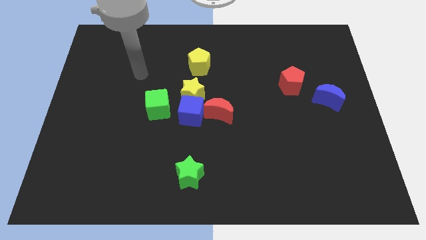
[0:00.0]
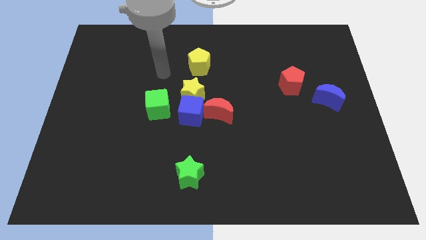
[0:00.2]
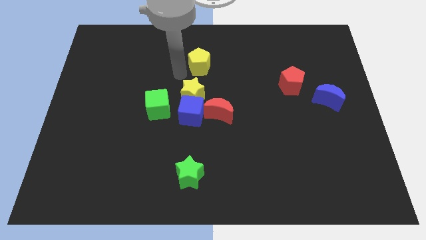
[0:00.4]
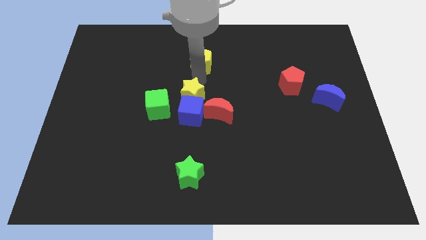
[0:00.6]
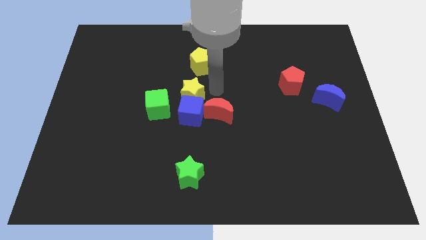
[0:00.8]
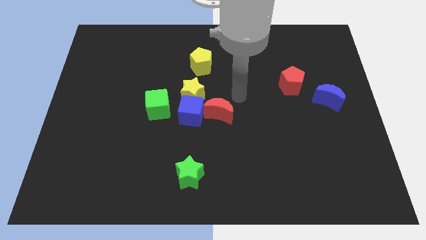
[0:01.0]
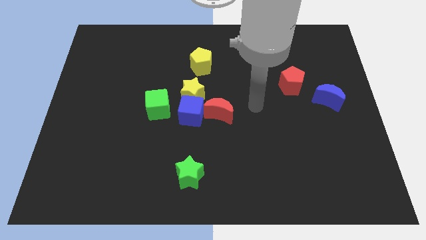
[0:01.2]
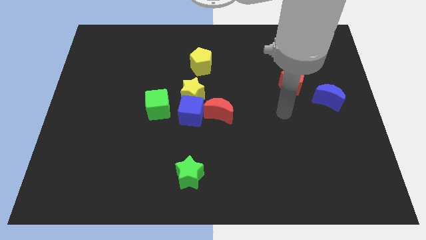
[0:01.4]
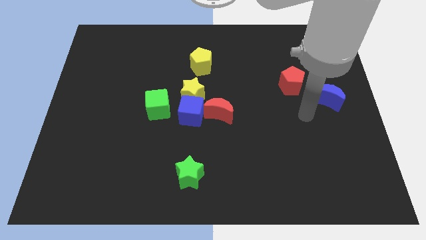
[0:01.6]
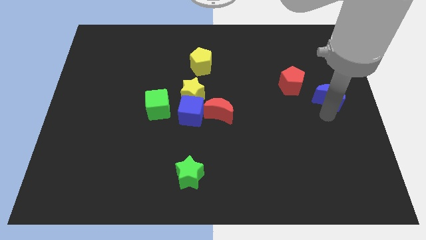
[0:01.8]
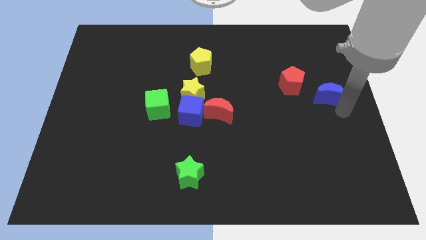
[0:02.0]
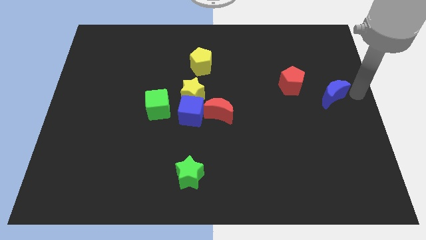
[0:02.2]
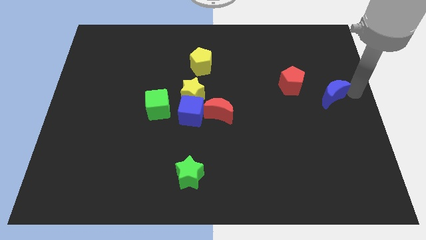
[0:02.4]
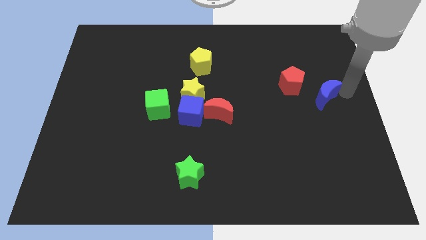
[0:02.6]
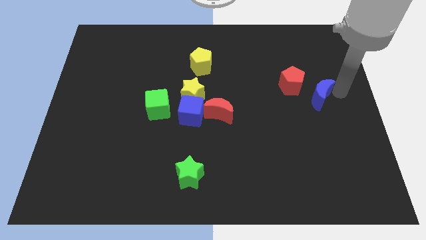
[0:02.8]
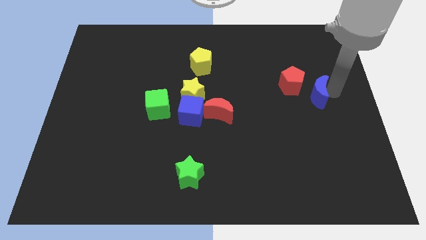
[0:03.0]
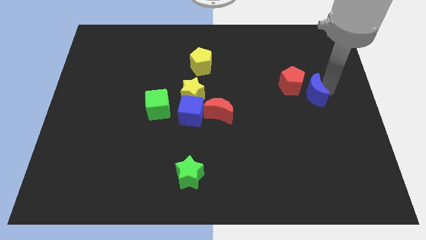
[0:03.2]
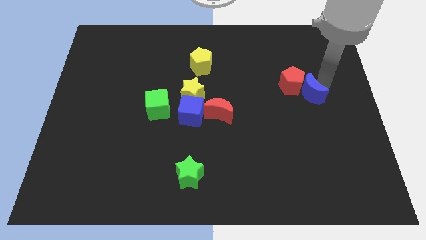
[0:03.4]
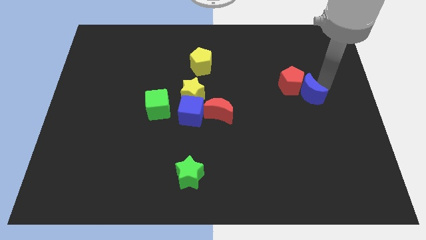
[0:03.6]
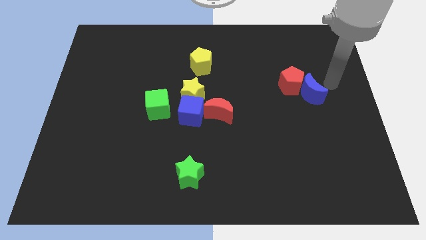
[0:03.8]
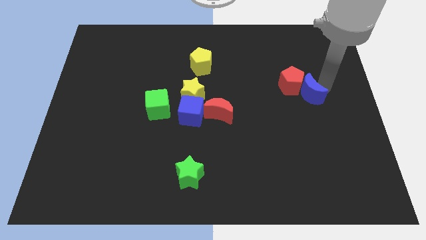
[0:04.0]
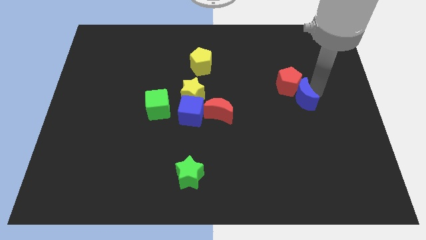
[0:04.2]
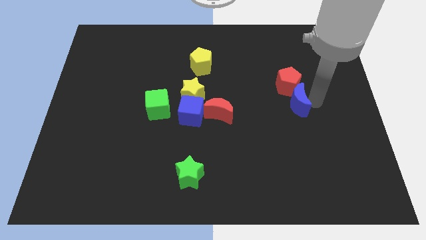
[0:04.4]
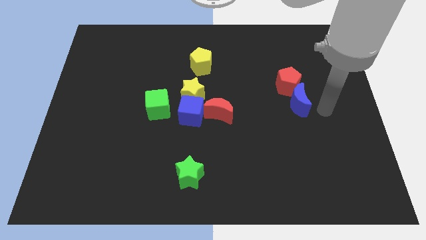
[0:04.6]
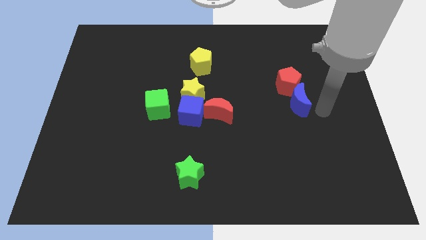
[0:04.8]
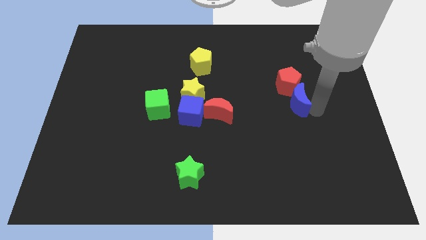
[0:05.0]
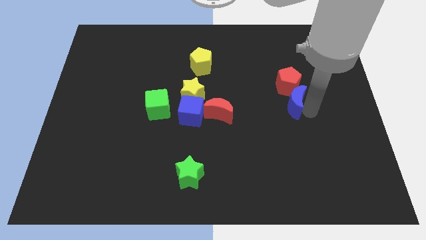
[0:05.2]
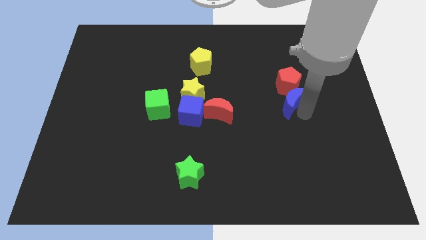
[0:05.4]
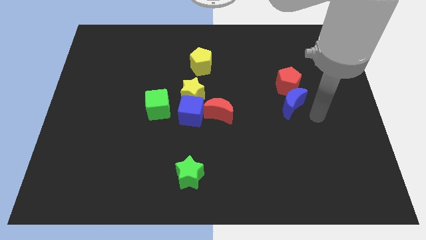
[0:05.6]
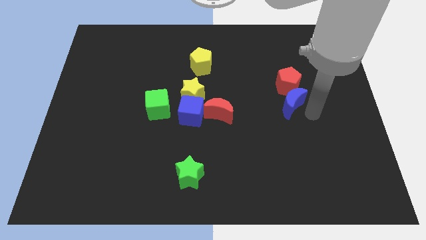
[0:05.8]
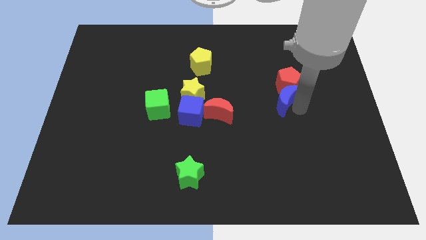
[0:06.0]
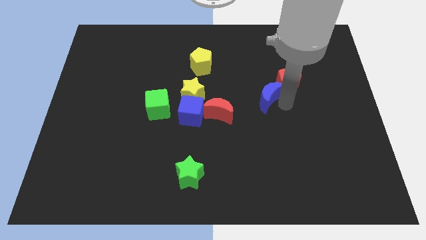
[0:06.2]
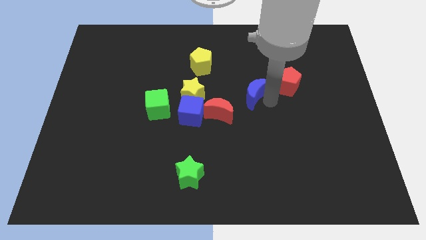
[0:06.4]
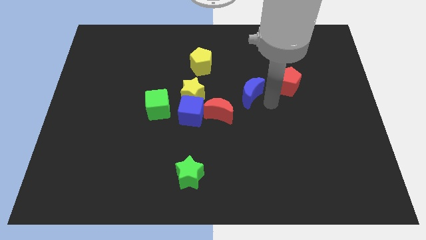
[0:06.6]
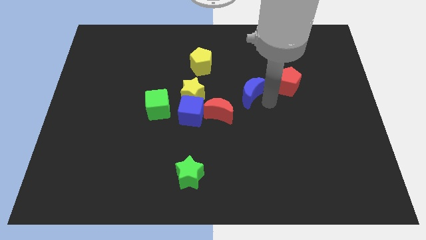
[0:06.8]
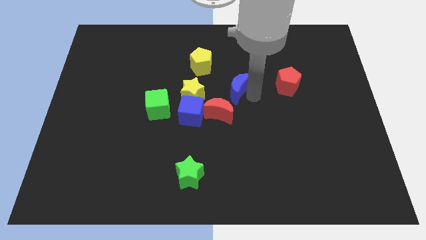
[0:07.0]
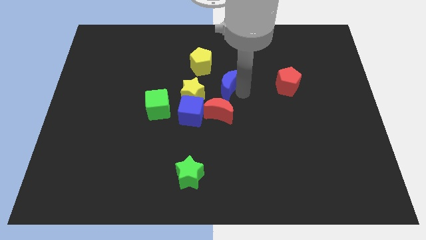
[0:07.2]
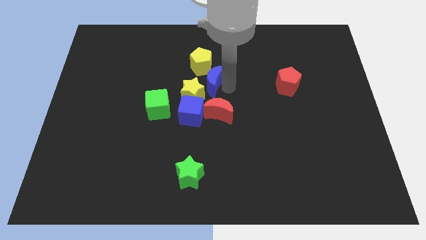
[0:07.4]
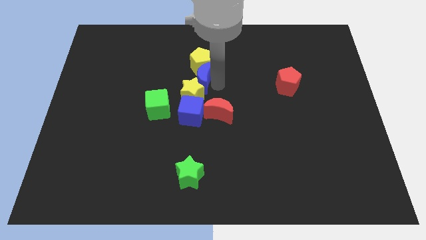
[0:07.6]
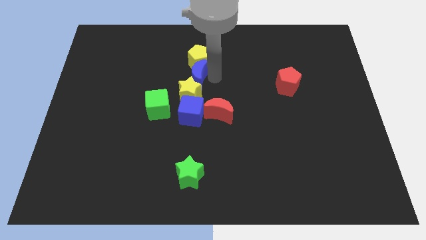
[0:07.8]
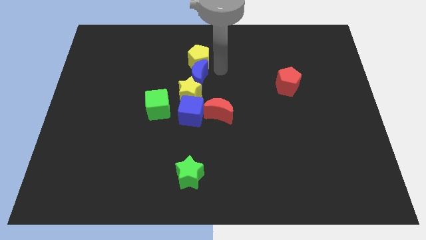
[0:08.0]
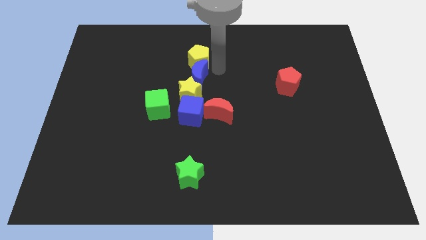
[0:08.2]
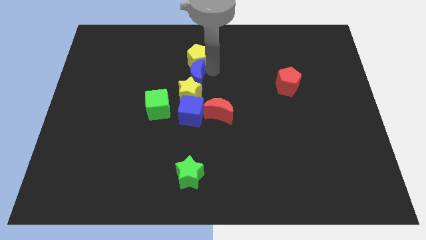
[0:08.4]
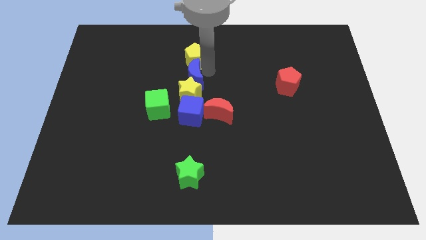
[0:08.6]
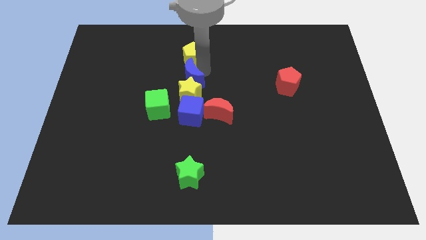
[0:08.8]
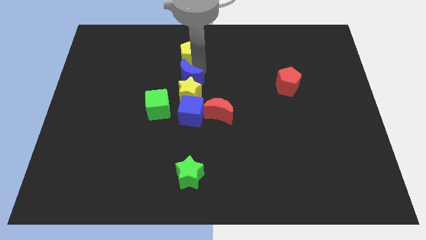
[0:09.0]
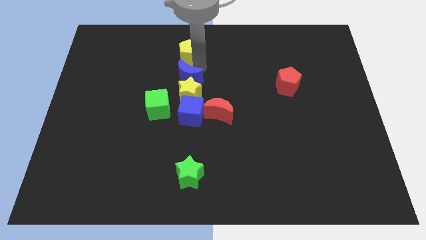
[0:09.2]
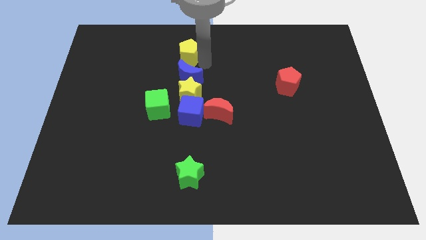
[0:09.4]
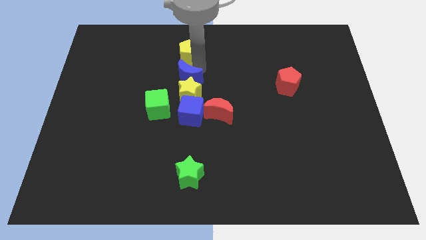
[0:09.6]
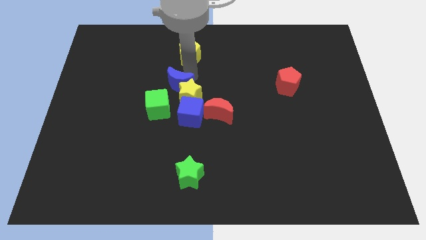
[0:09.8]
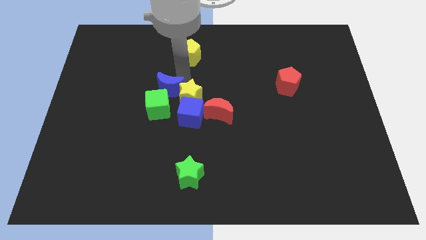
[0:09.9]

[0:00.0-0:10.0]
slide the blue moon towards the green cube

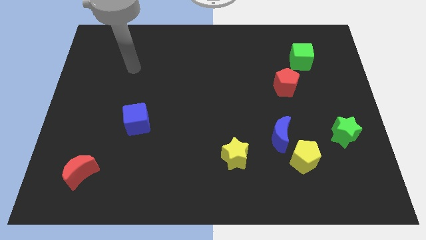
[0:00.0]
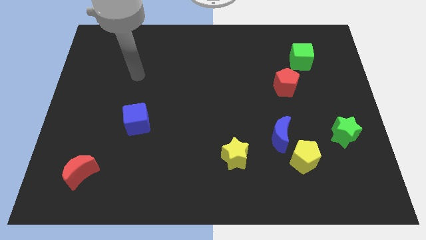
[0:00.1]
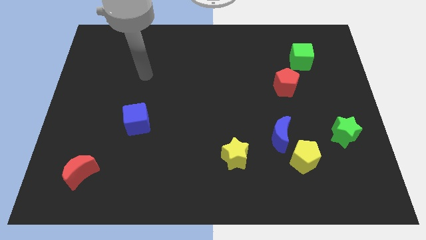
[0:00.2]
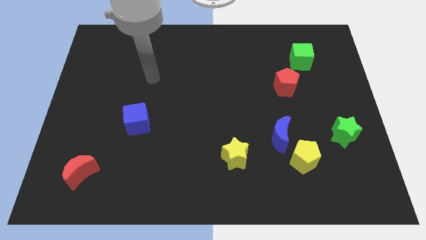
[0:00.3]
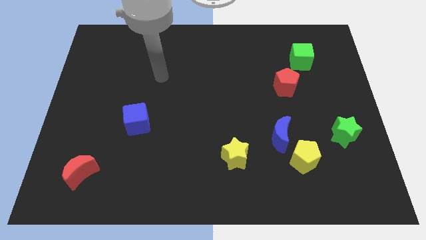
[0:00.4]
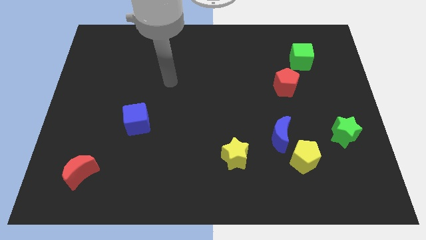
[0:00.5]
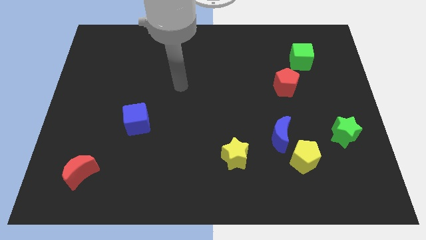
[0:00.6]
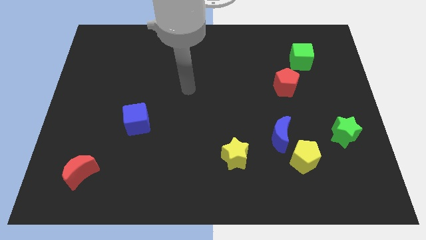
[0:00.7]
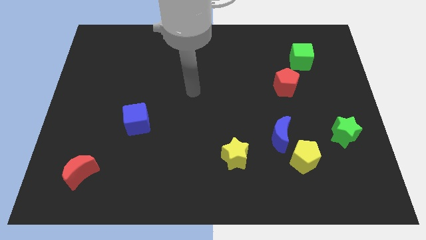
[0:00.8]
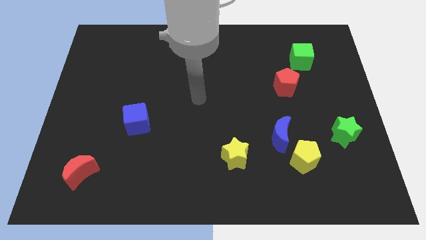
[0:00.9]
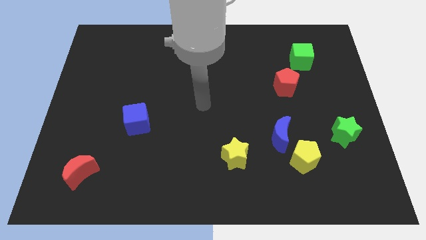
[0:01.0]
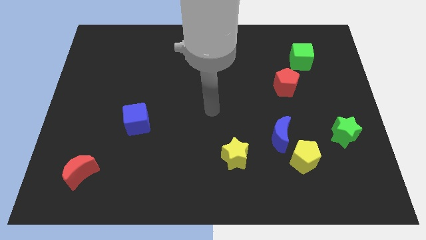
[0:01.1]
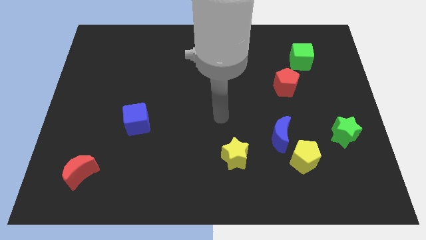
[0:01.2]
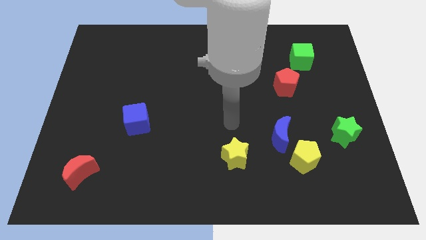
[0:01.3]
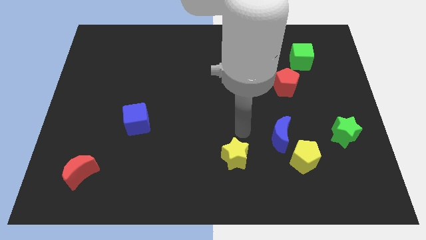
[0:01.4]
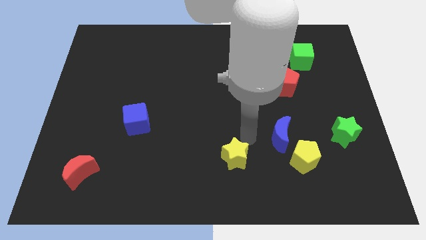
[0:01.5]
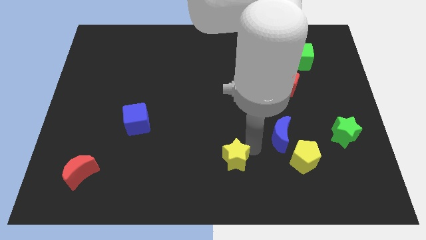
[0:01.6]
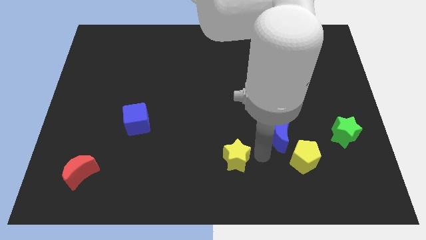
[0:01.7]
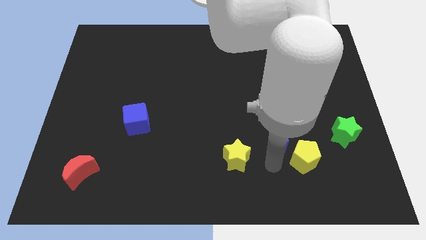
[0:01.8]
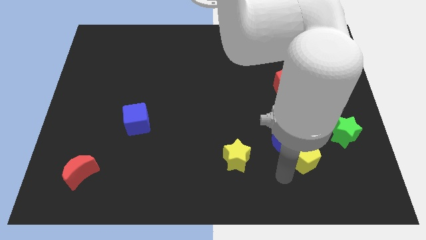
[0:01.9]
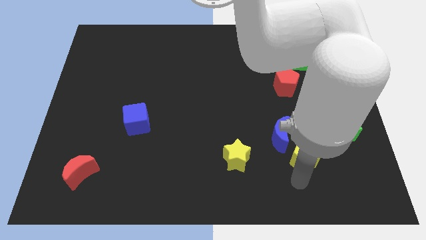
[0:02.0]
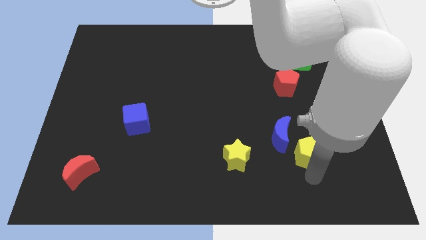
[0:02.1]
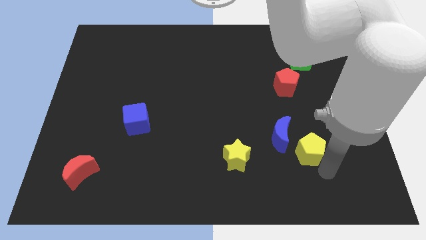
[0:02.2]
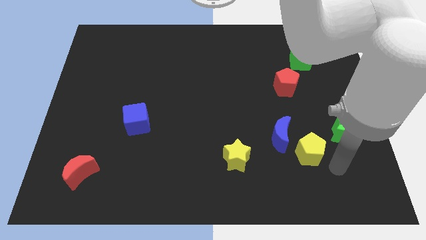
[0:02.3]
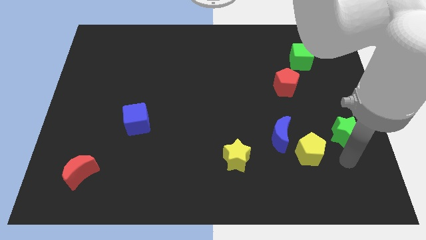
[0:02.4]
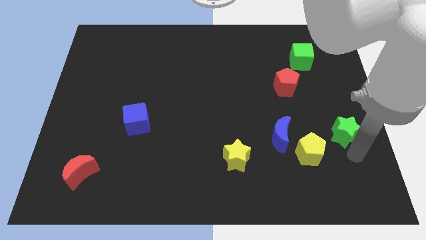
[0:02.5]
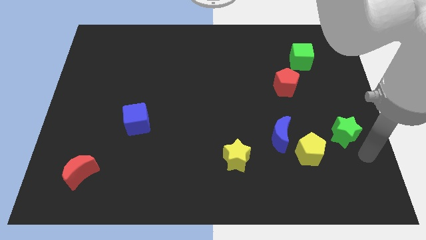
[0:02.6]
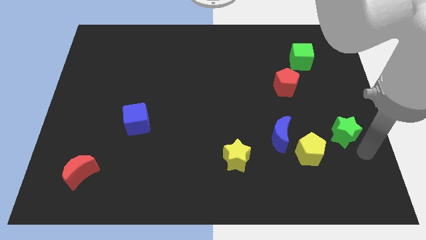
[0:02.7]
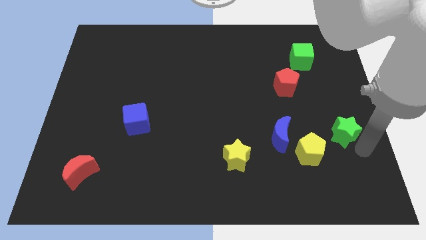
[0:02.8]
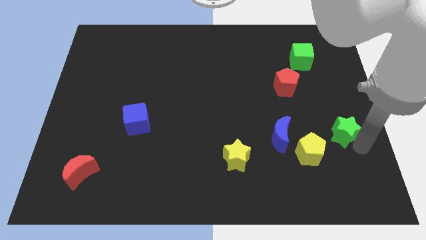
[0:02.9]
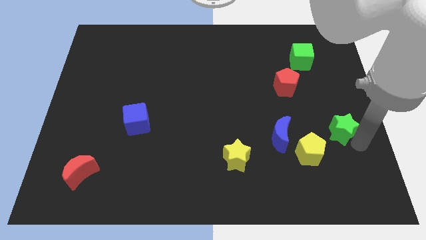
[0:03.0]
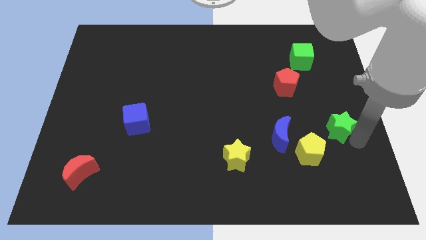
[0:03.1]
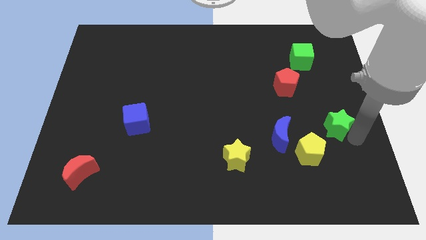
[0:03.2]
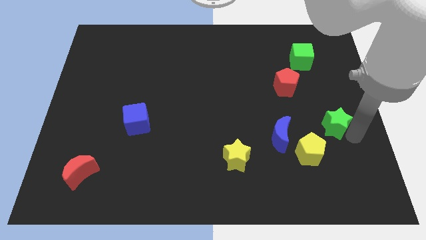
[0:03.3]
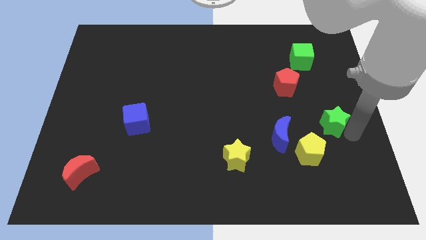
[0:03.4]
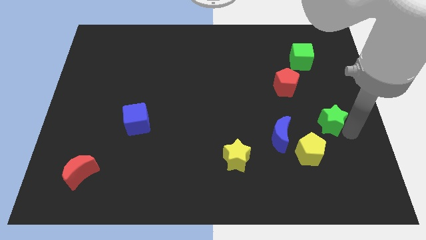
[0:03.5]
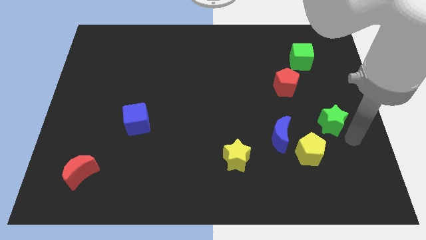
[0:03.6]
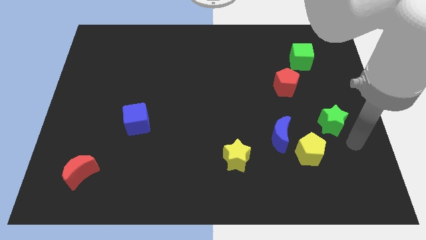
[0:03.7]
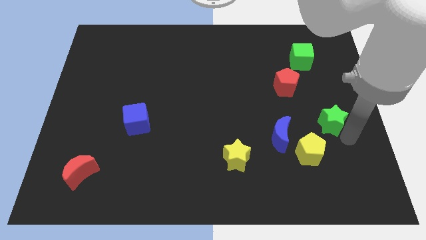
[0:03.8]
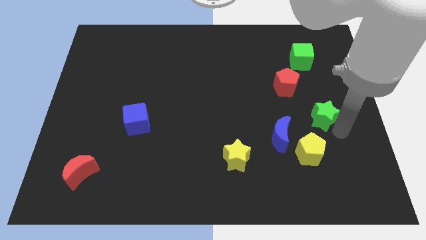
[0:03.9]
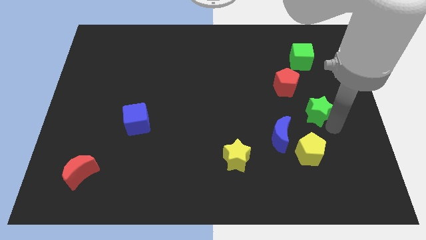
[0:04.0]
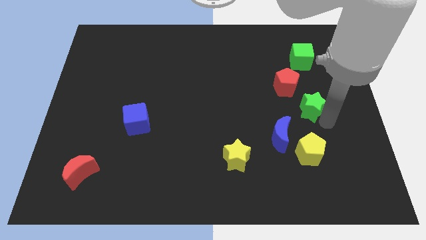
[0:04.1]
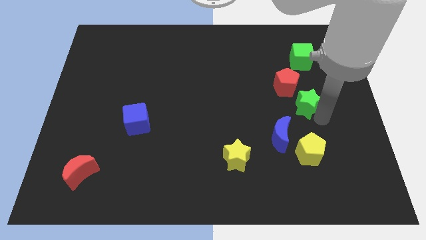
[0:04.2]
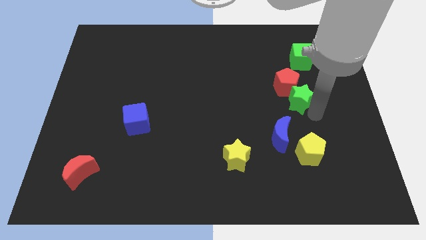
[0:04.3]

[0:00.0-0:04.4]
slide the green star to the red pentagon
